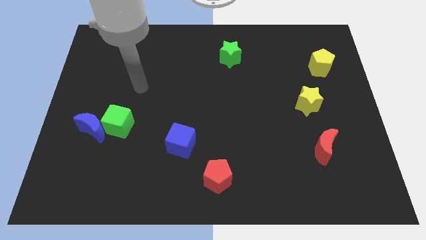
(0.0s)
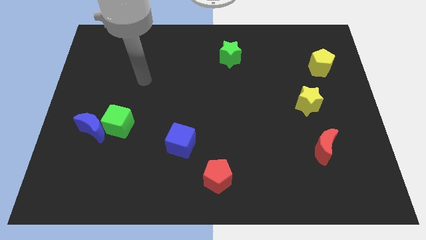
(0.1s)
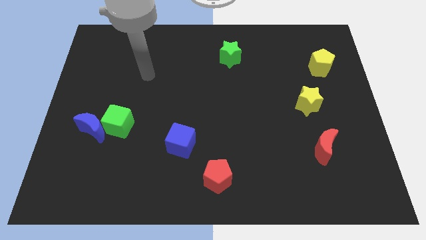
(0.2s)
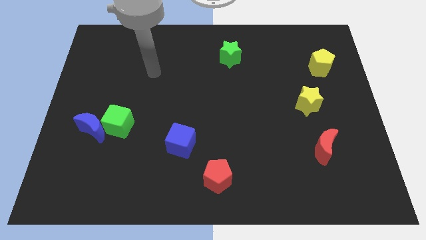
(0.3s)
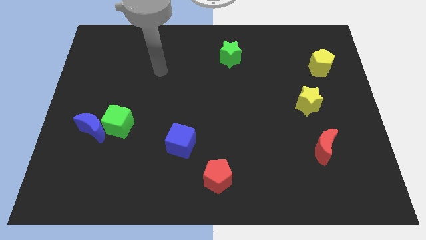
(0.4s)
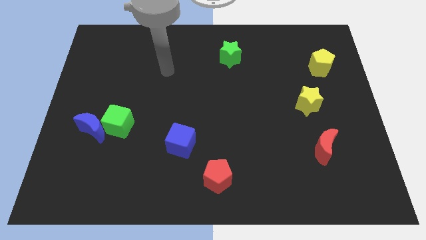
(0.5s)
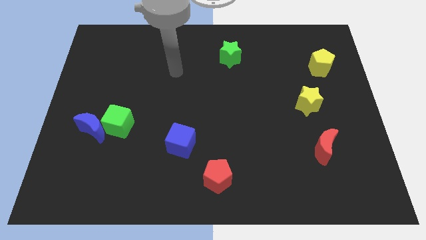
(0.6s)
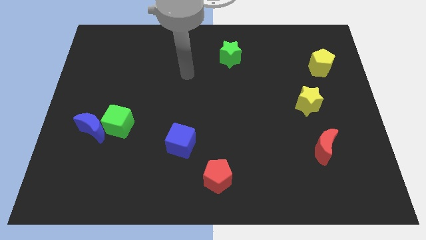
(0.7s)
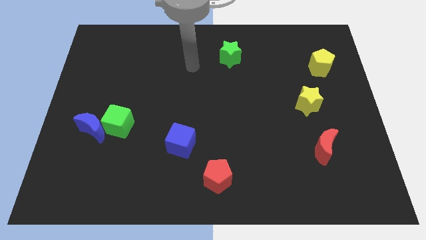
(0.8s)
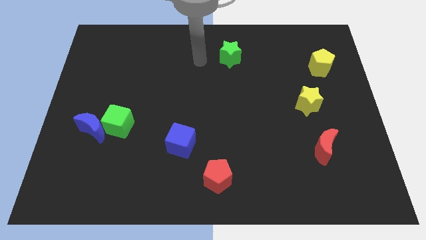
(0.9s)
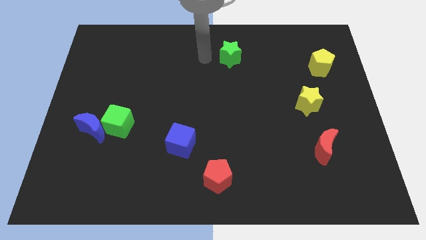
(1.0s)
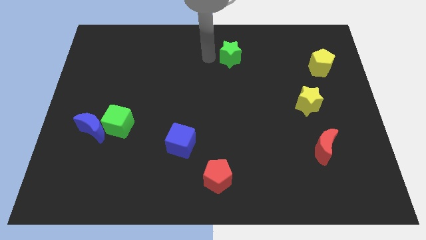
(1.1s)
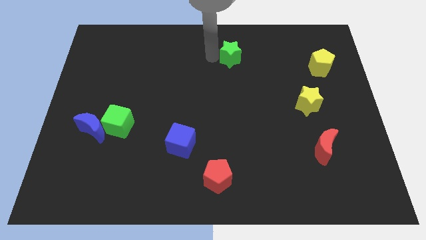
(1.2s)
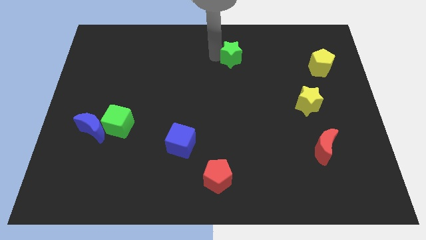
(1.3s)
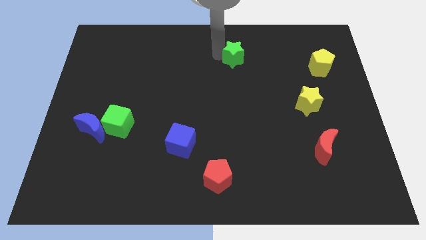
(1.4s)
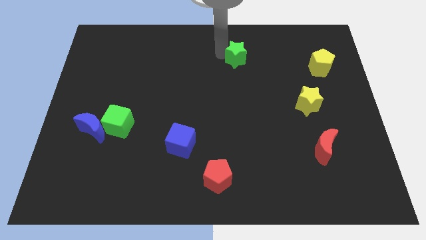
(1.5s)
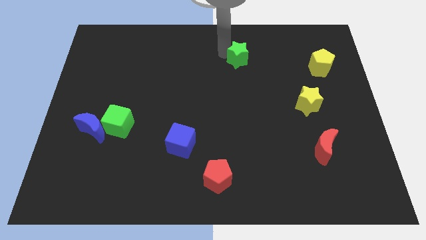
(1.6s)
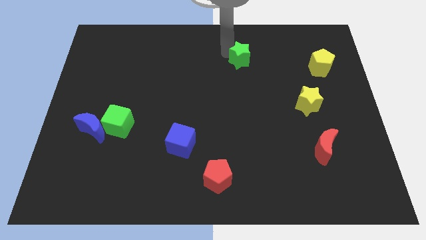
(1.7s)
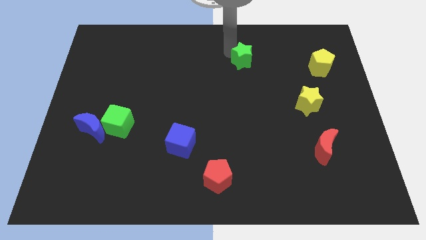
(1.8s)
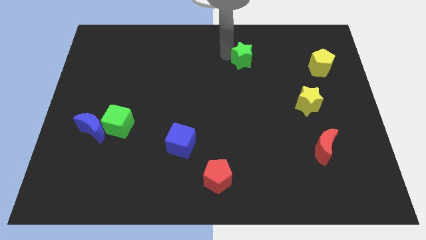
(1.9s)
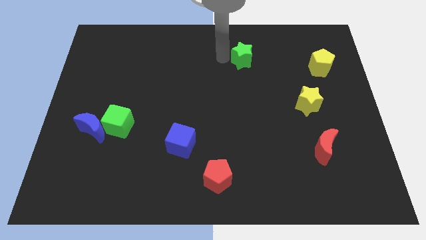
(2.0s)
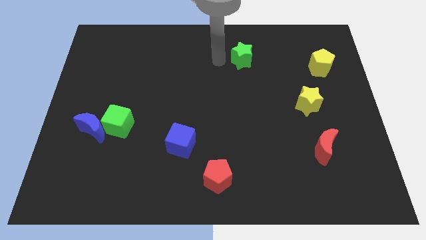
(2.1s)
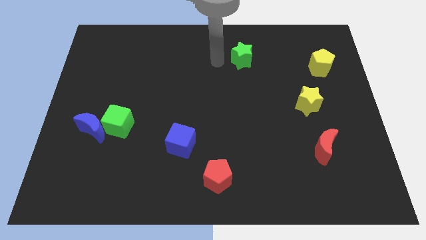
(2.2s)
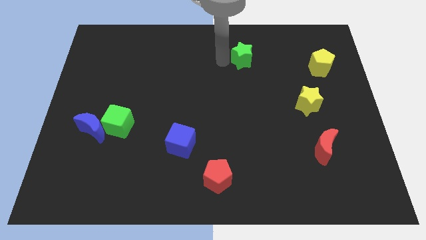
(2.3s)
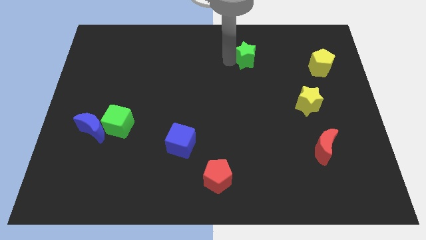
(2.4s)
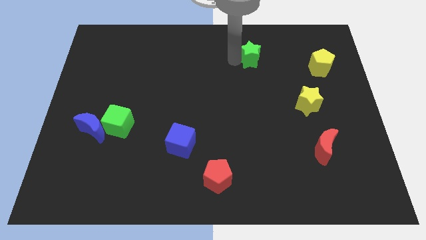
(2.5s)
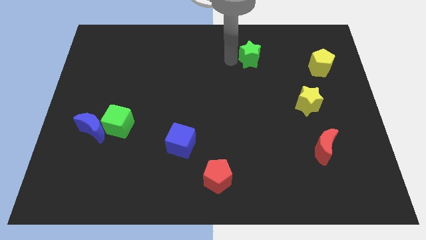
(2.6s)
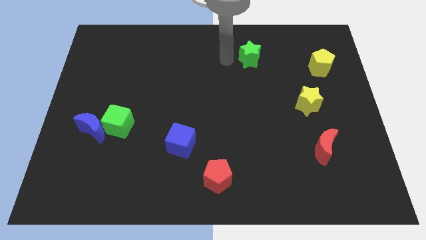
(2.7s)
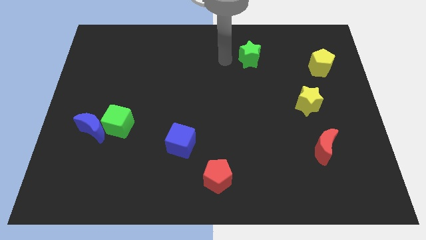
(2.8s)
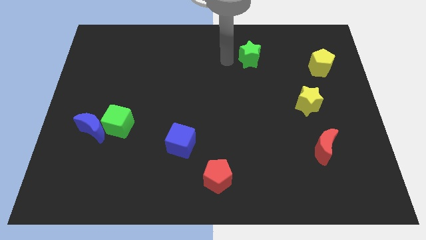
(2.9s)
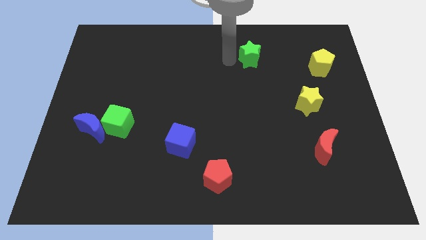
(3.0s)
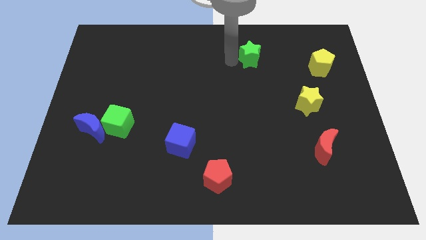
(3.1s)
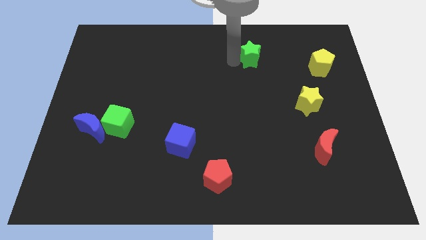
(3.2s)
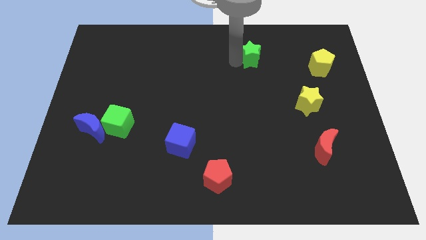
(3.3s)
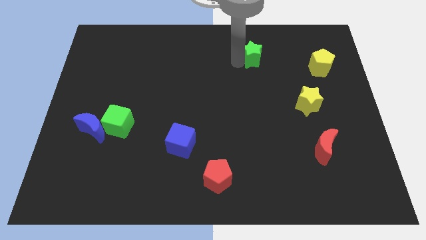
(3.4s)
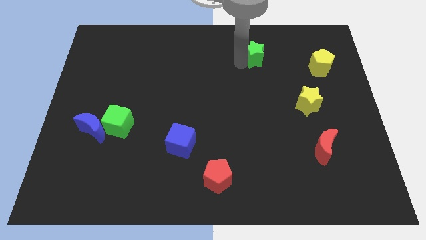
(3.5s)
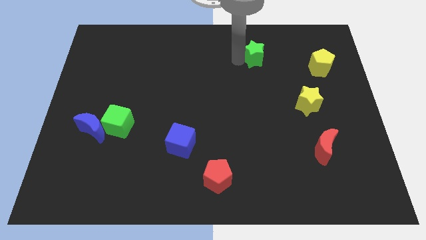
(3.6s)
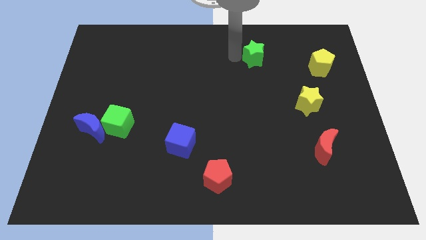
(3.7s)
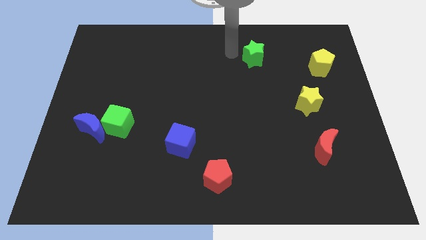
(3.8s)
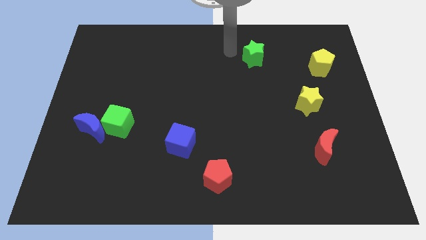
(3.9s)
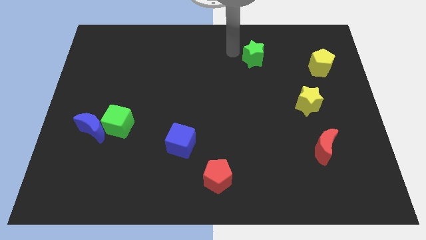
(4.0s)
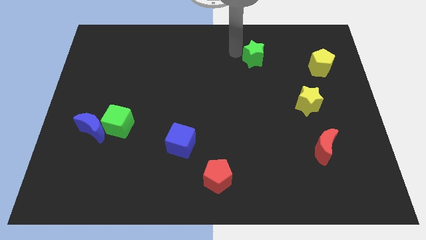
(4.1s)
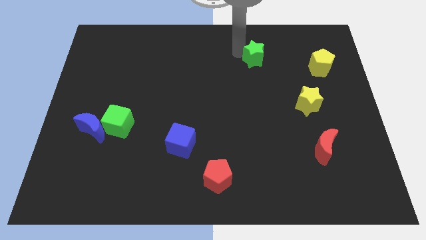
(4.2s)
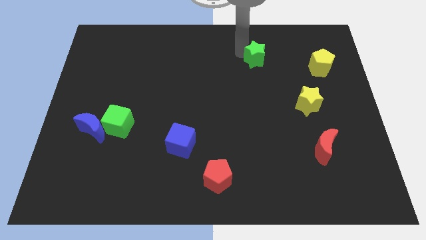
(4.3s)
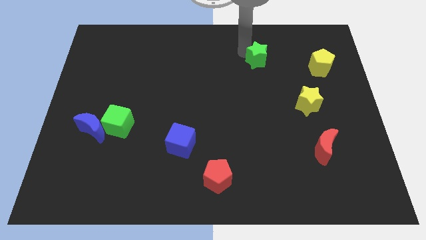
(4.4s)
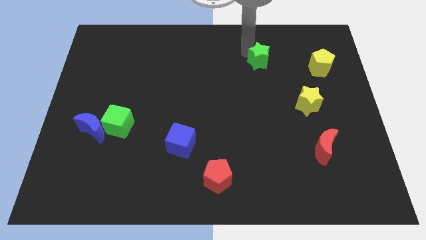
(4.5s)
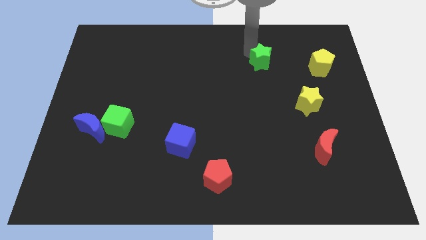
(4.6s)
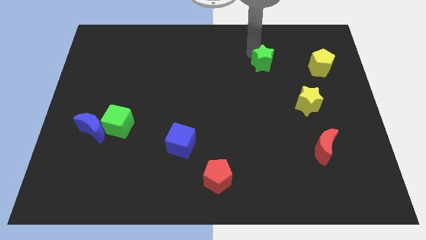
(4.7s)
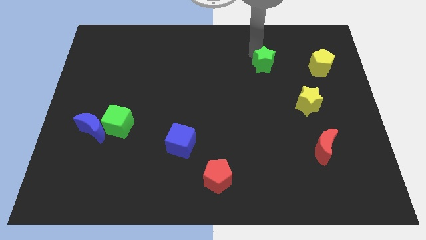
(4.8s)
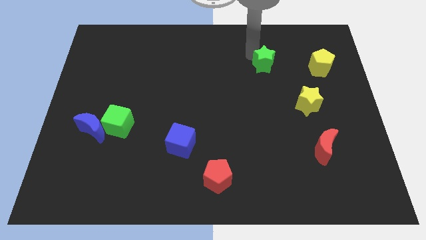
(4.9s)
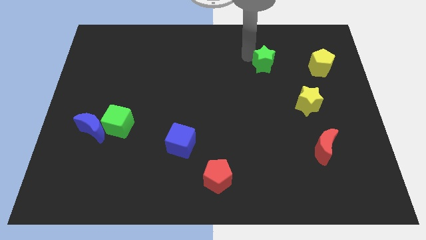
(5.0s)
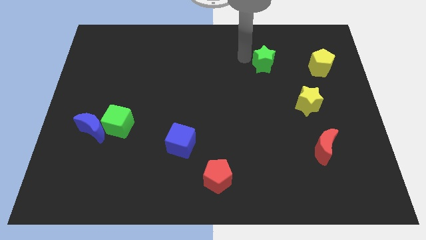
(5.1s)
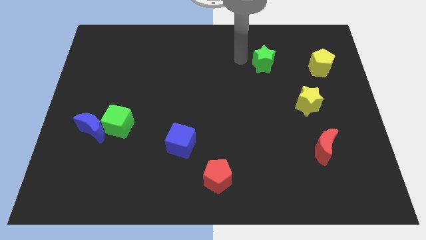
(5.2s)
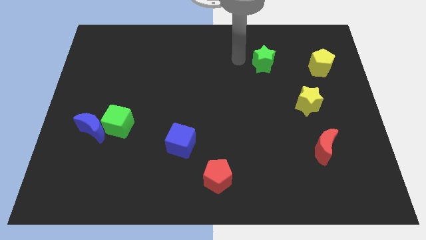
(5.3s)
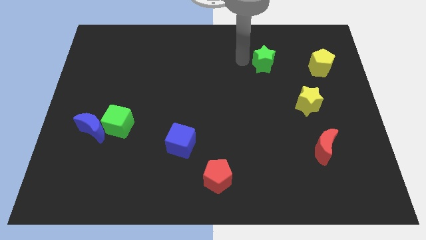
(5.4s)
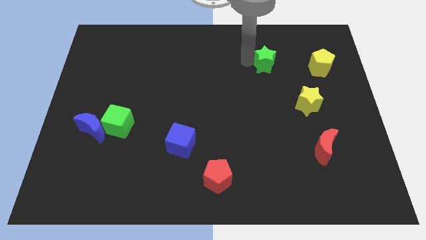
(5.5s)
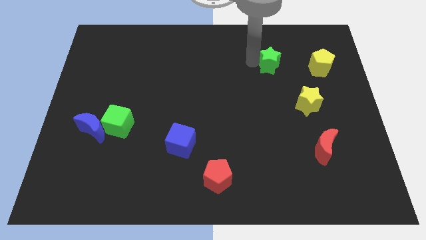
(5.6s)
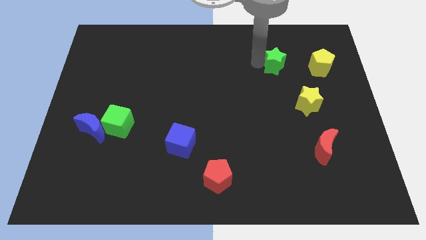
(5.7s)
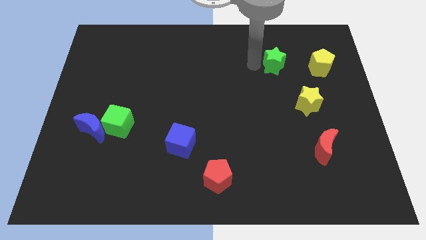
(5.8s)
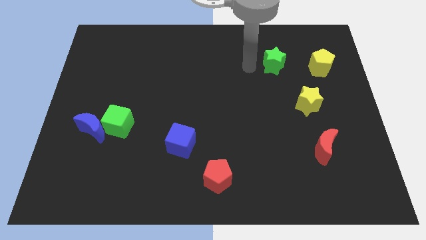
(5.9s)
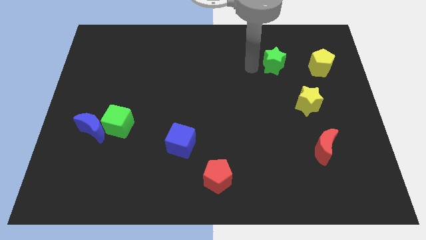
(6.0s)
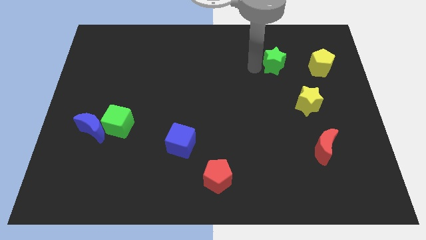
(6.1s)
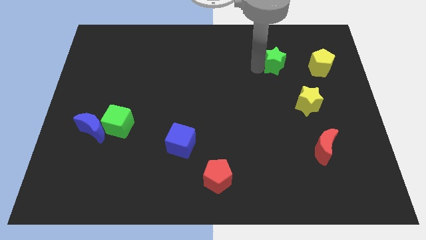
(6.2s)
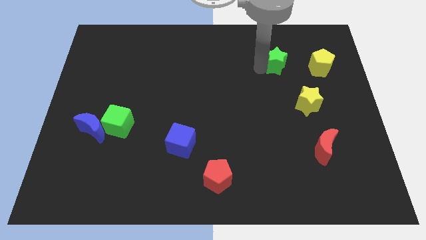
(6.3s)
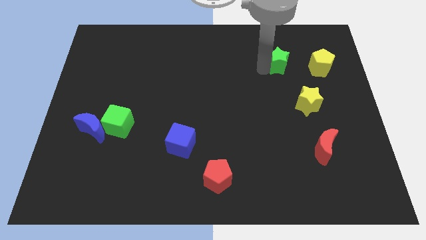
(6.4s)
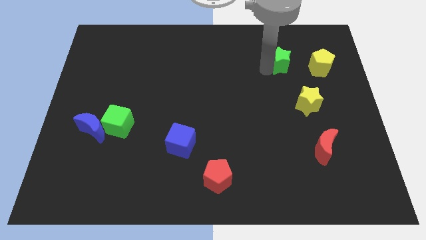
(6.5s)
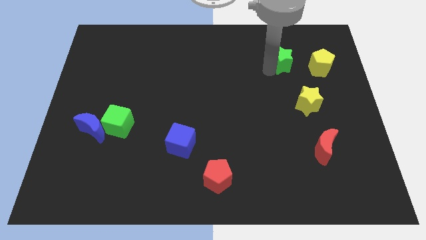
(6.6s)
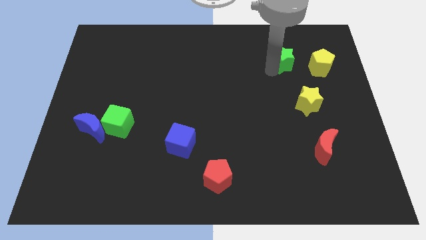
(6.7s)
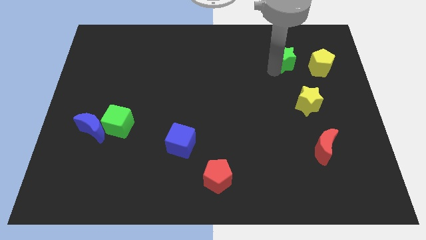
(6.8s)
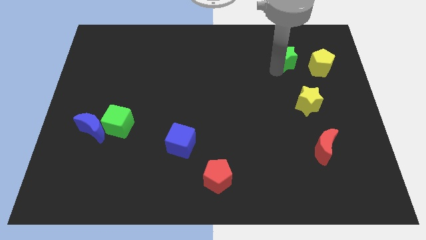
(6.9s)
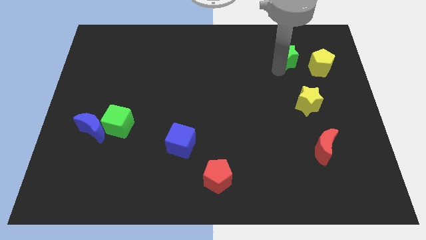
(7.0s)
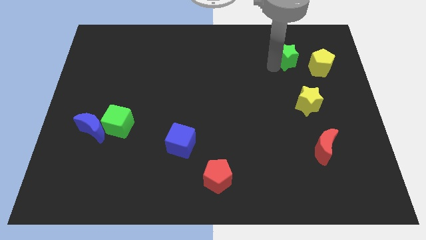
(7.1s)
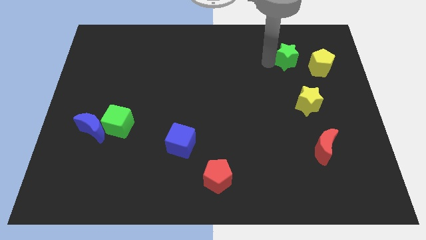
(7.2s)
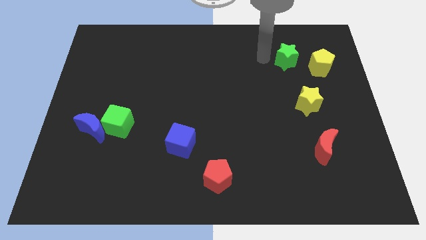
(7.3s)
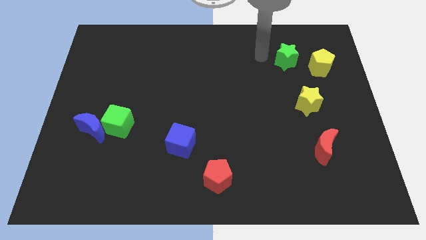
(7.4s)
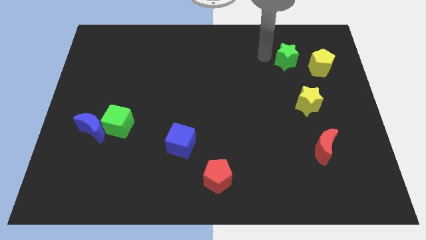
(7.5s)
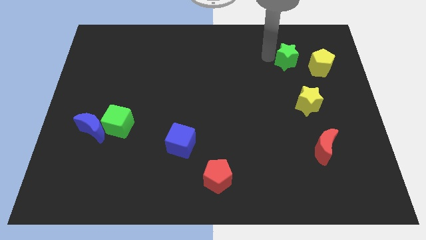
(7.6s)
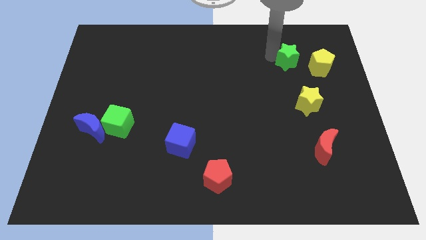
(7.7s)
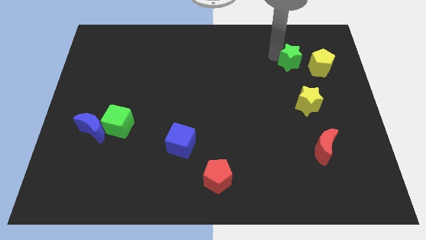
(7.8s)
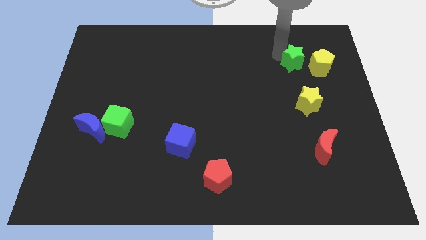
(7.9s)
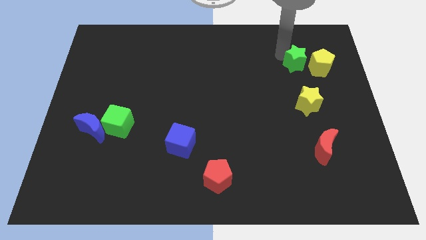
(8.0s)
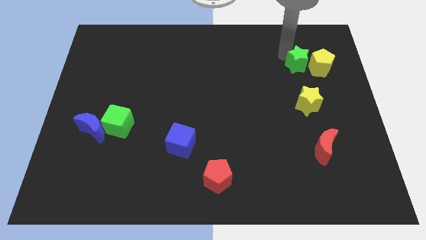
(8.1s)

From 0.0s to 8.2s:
put the green star close to the yellow pentagon
